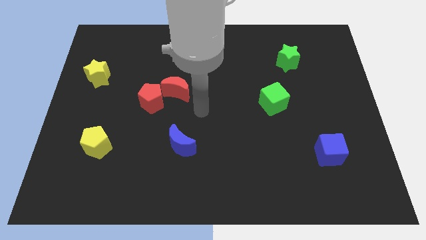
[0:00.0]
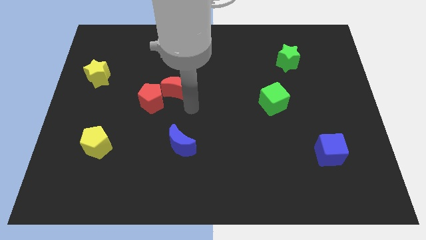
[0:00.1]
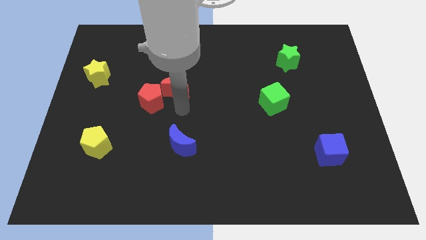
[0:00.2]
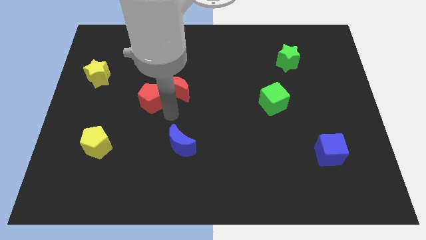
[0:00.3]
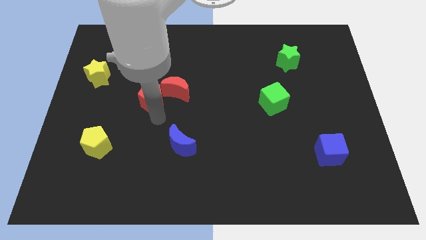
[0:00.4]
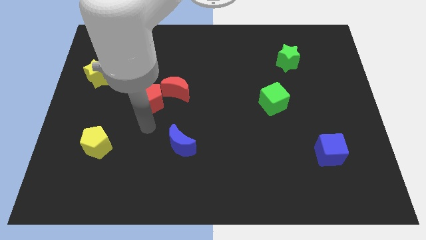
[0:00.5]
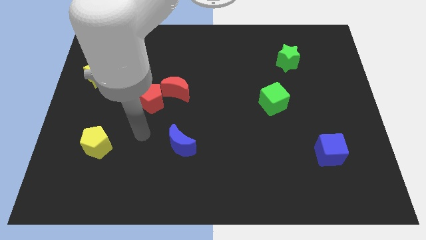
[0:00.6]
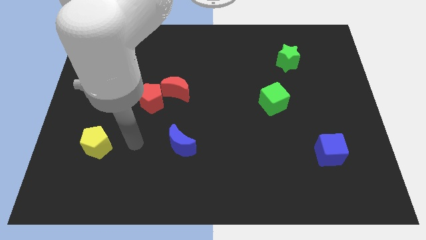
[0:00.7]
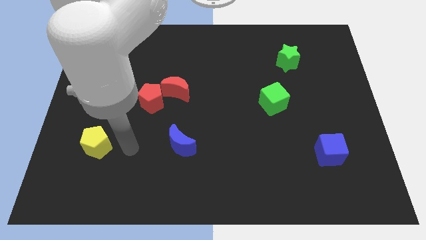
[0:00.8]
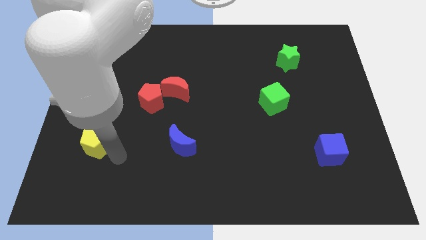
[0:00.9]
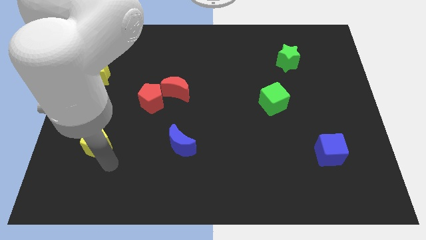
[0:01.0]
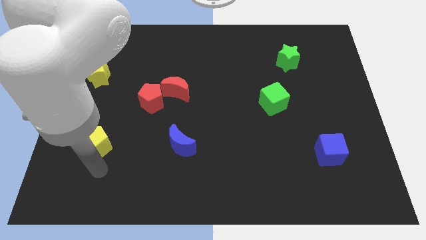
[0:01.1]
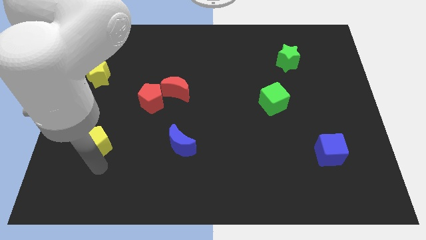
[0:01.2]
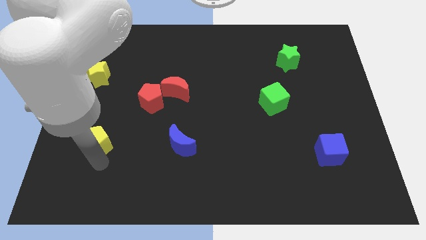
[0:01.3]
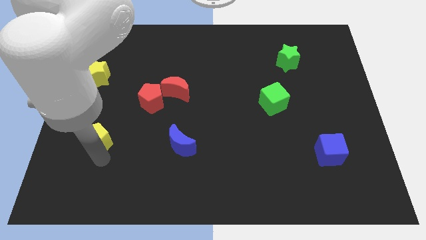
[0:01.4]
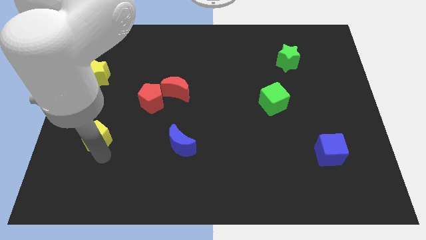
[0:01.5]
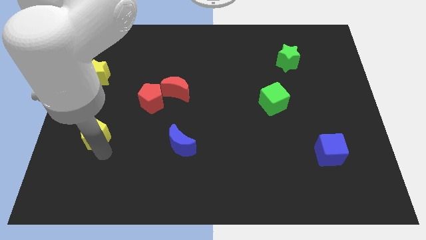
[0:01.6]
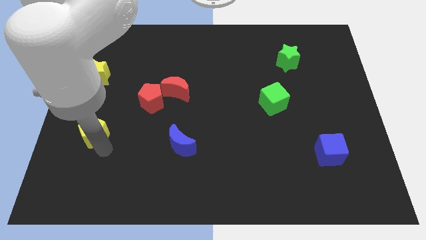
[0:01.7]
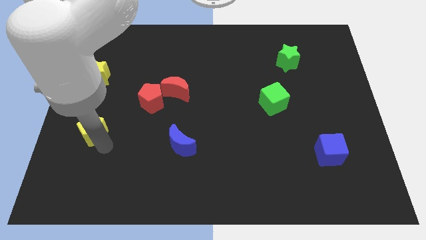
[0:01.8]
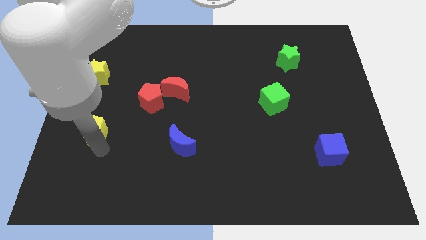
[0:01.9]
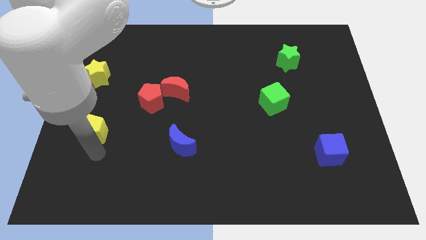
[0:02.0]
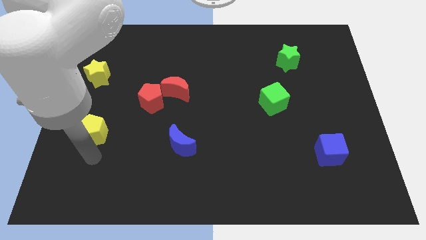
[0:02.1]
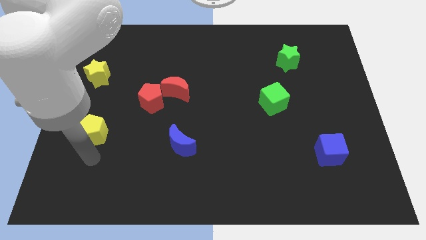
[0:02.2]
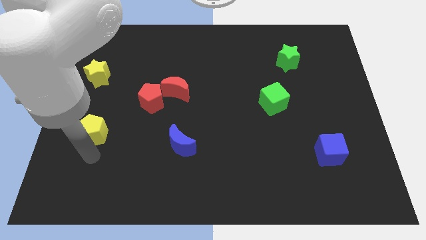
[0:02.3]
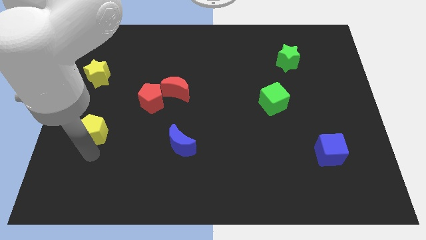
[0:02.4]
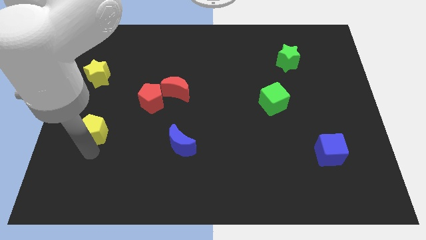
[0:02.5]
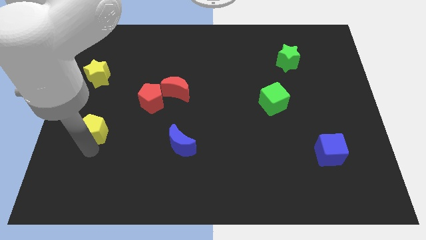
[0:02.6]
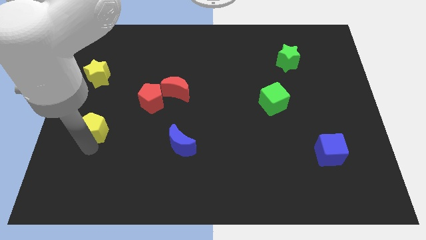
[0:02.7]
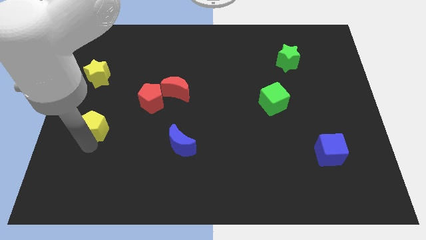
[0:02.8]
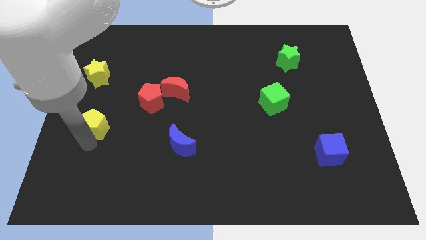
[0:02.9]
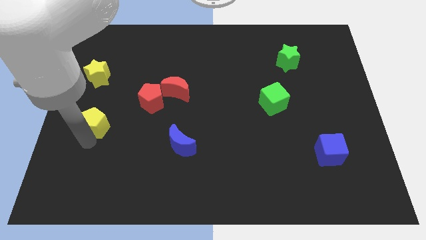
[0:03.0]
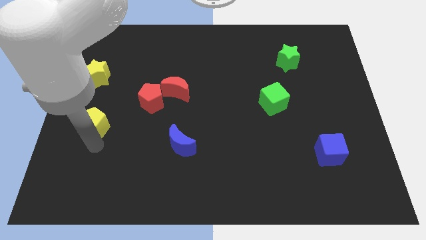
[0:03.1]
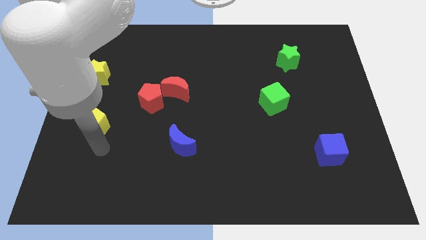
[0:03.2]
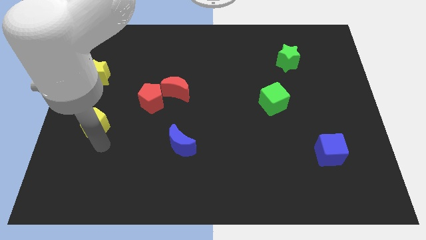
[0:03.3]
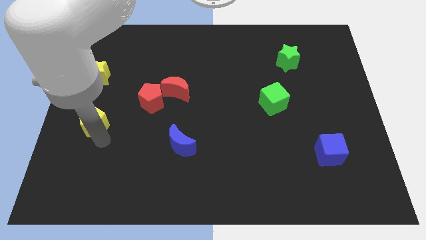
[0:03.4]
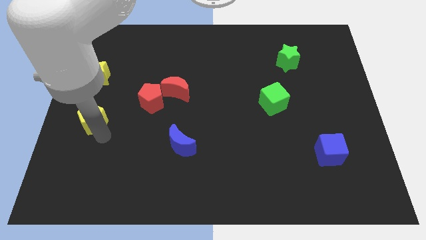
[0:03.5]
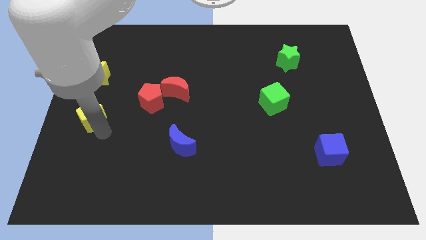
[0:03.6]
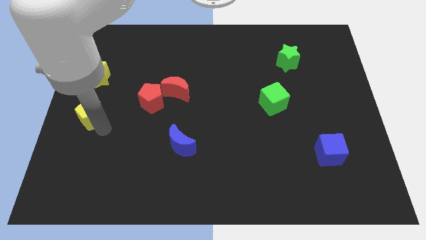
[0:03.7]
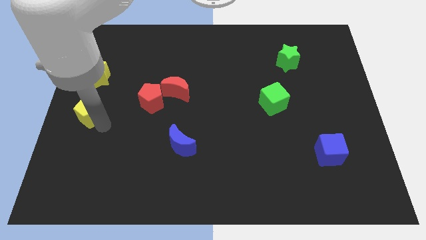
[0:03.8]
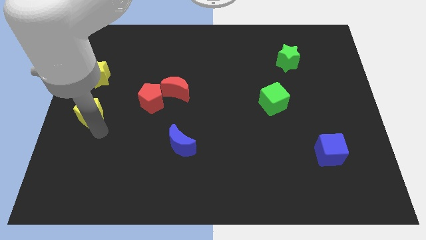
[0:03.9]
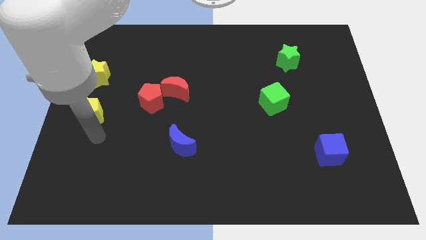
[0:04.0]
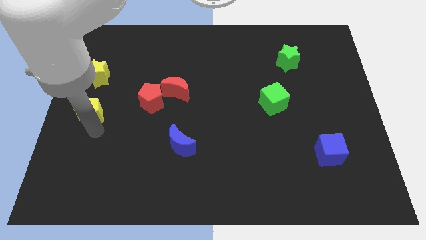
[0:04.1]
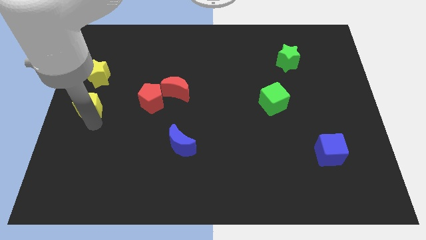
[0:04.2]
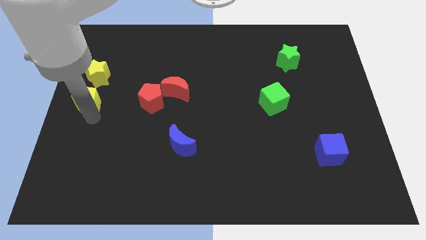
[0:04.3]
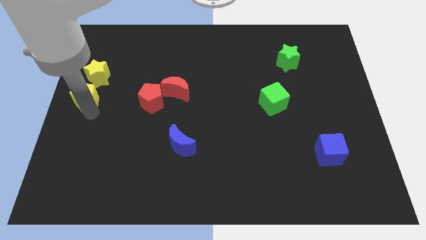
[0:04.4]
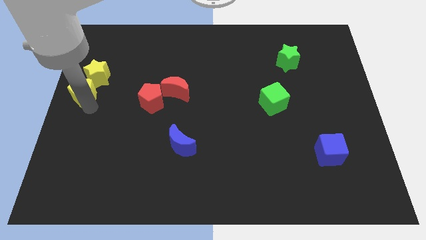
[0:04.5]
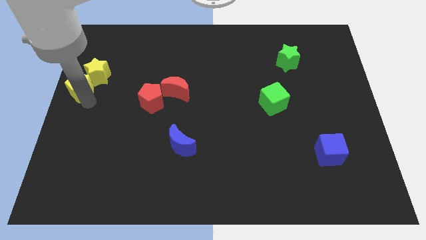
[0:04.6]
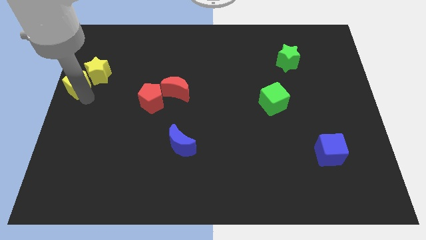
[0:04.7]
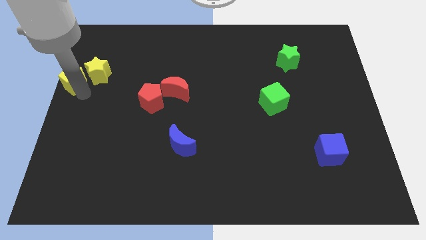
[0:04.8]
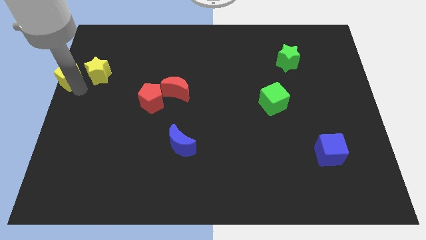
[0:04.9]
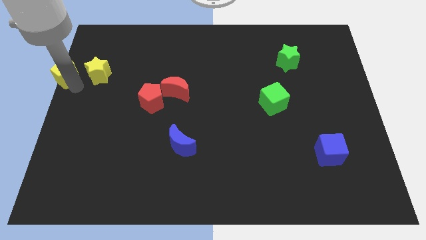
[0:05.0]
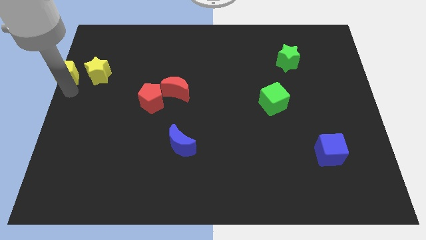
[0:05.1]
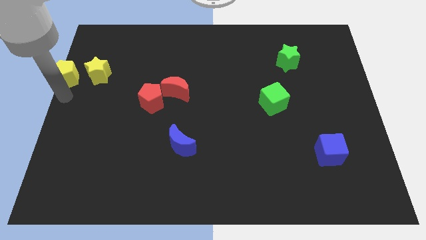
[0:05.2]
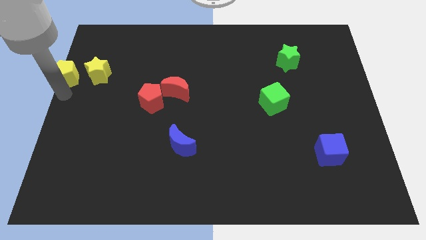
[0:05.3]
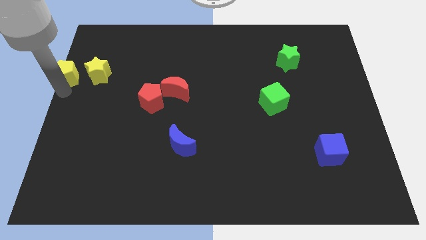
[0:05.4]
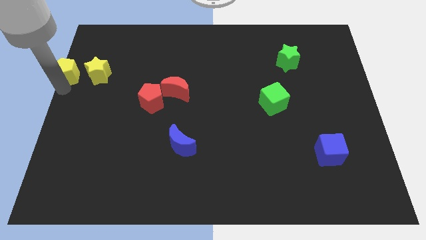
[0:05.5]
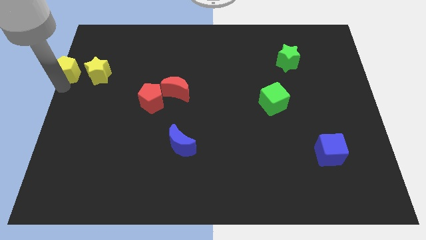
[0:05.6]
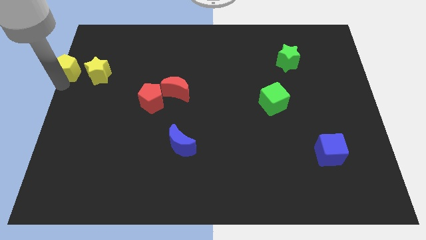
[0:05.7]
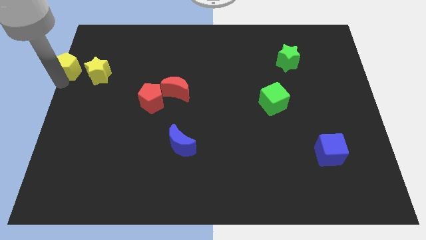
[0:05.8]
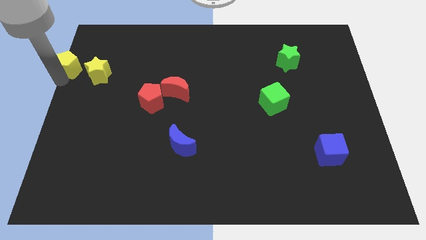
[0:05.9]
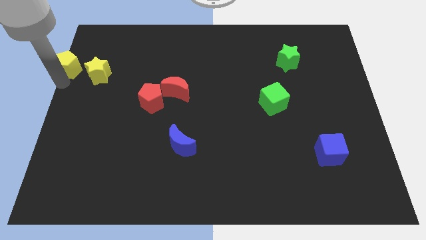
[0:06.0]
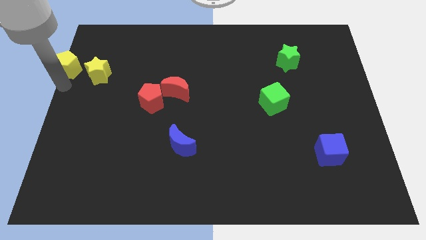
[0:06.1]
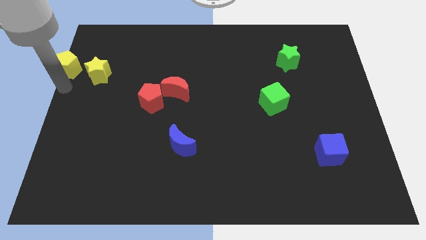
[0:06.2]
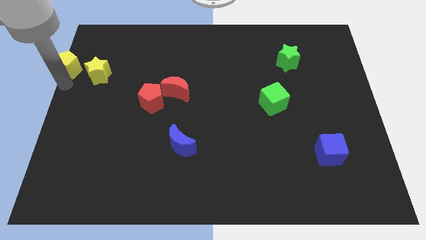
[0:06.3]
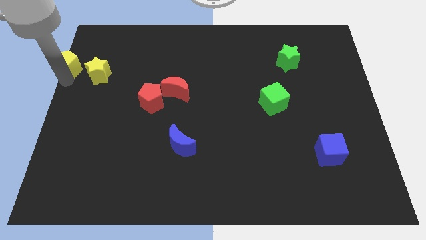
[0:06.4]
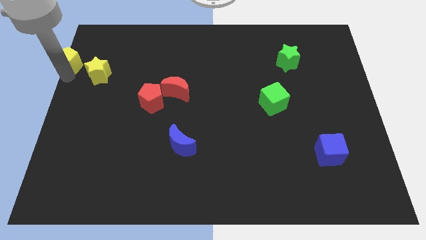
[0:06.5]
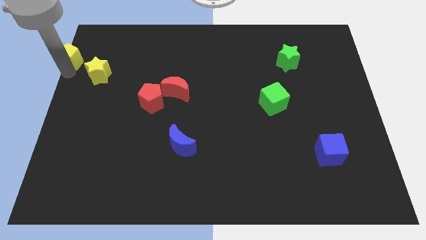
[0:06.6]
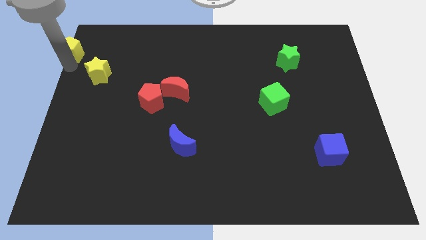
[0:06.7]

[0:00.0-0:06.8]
push the yellow pentagon to the top left of the board

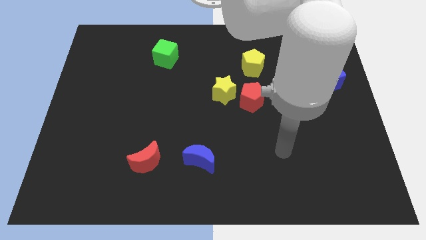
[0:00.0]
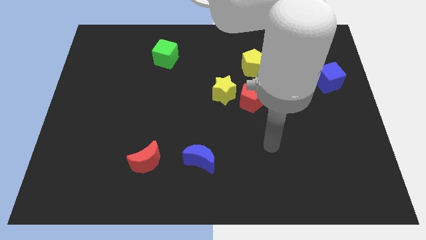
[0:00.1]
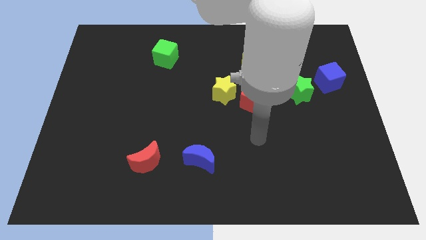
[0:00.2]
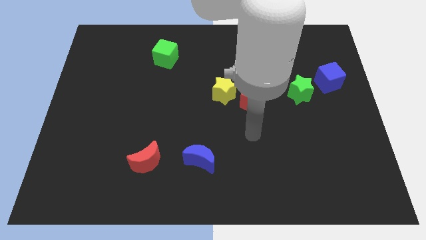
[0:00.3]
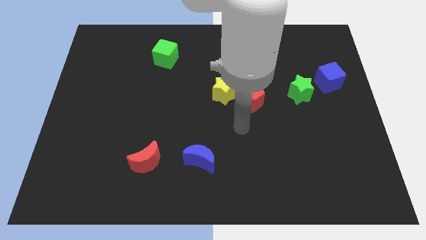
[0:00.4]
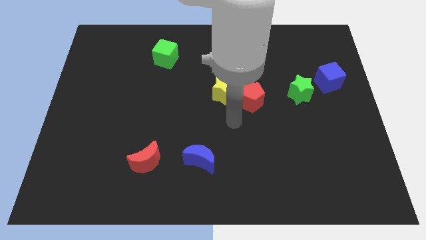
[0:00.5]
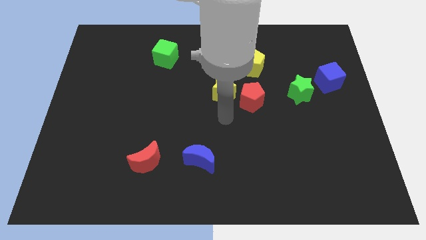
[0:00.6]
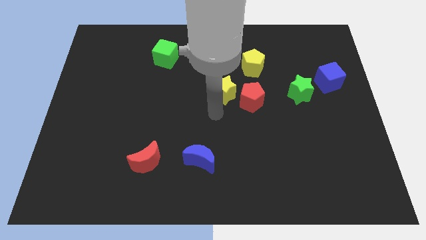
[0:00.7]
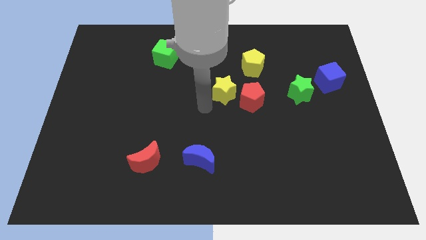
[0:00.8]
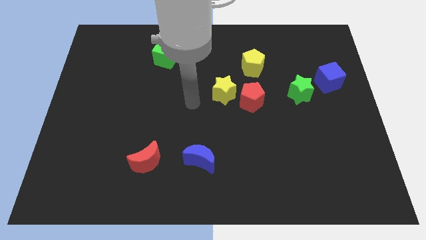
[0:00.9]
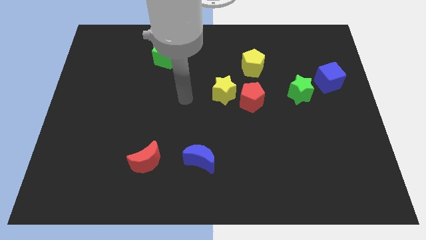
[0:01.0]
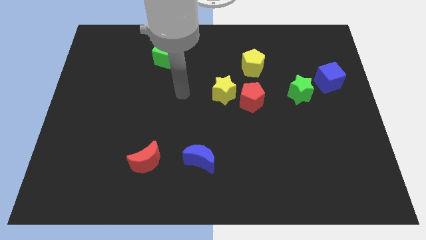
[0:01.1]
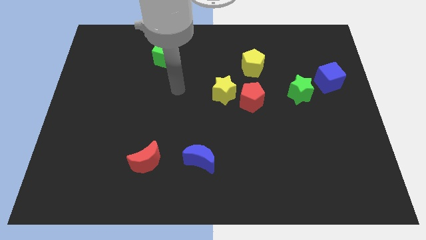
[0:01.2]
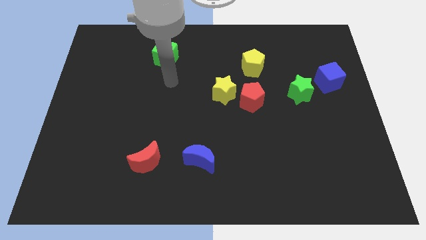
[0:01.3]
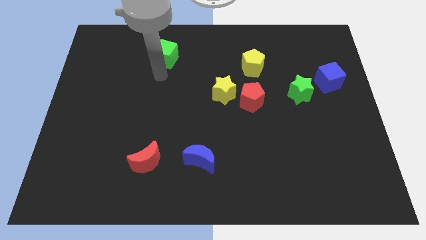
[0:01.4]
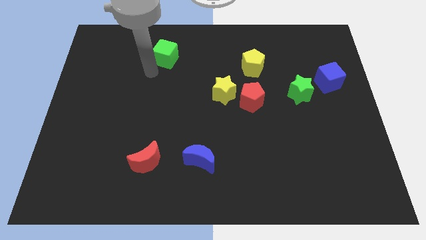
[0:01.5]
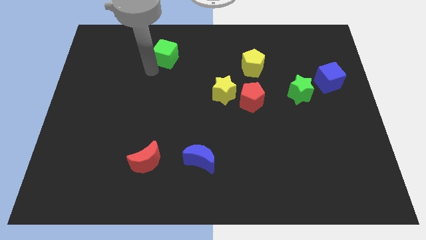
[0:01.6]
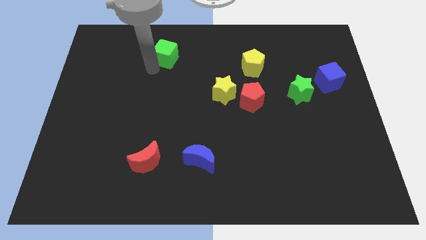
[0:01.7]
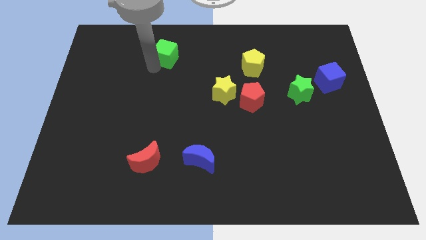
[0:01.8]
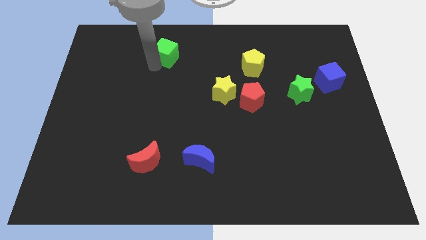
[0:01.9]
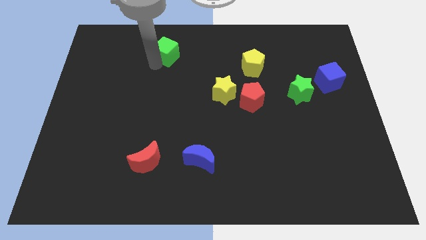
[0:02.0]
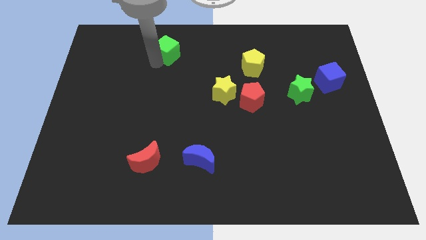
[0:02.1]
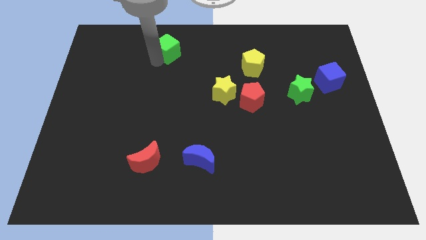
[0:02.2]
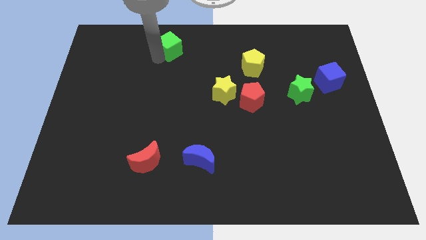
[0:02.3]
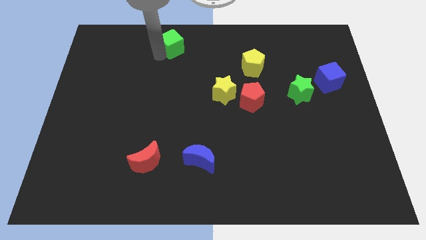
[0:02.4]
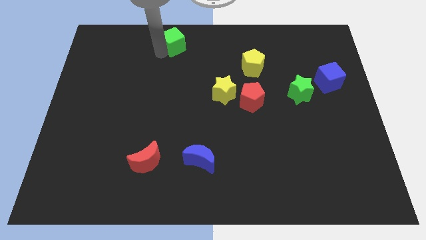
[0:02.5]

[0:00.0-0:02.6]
slide the green cube to the top
